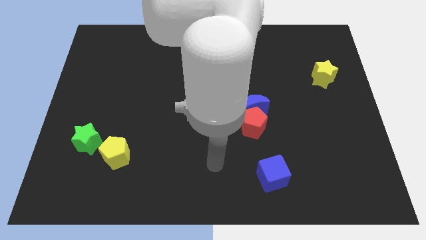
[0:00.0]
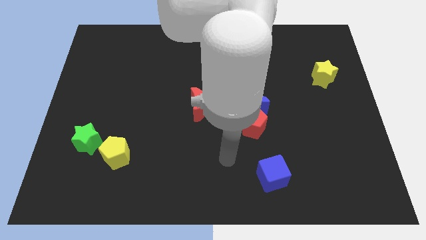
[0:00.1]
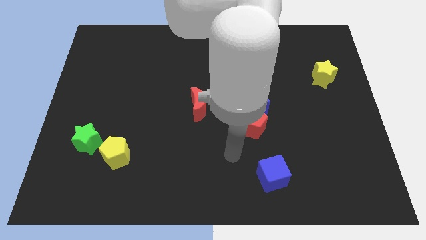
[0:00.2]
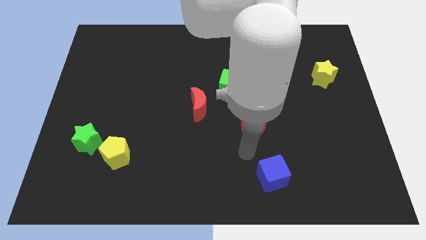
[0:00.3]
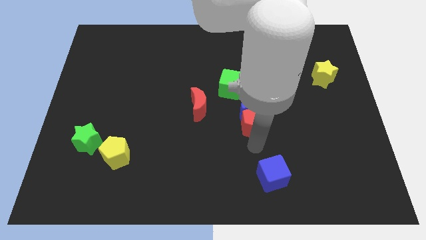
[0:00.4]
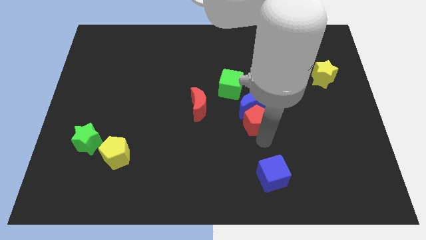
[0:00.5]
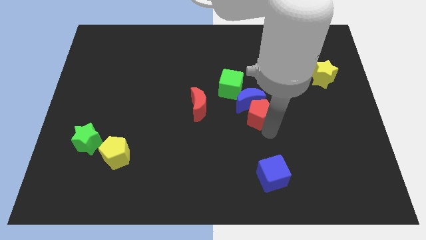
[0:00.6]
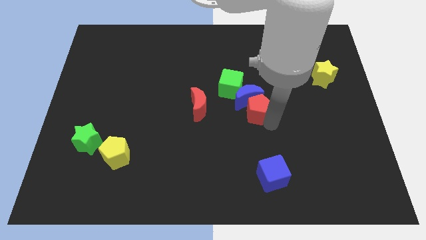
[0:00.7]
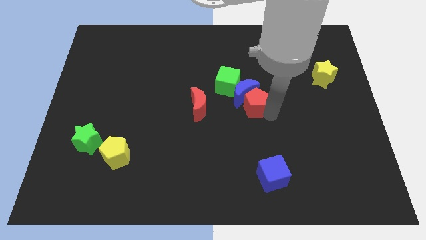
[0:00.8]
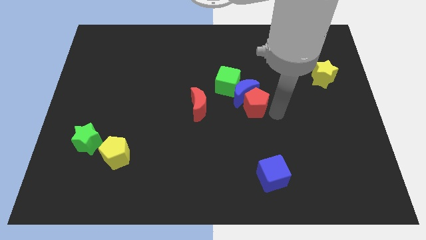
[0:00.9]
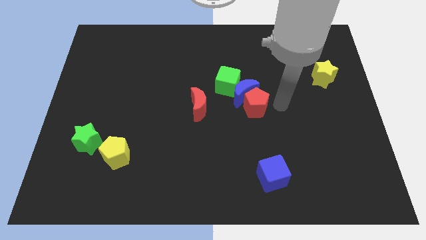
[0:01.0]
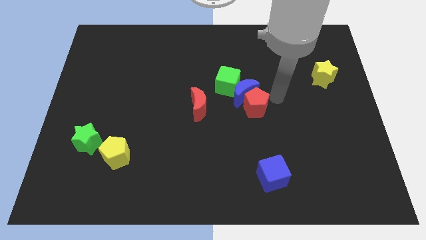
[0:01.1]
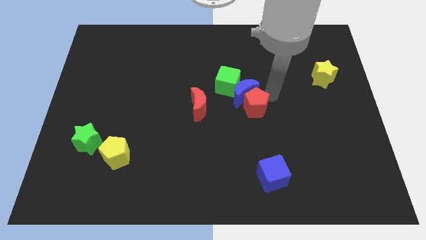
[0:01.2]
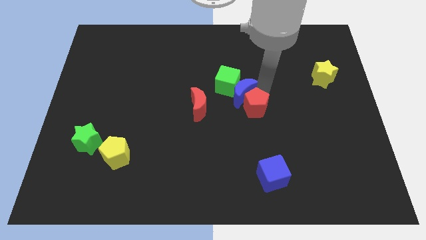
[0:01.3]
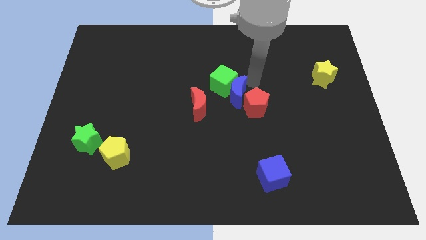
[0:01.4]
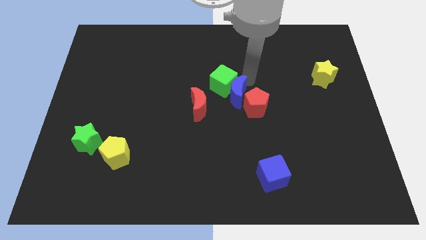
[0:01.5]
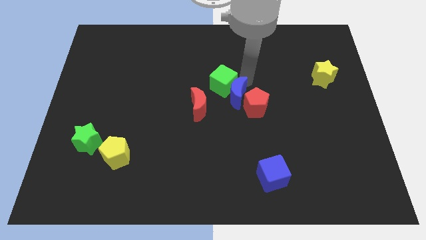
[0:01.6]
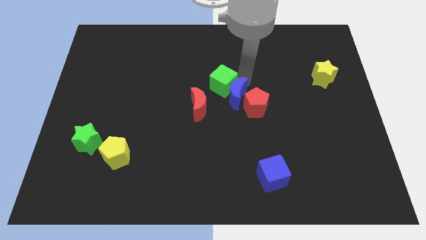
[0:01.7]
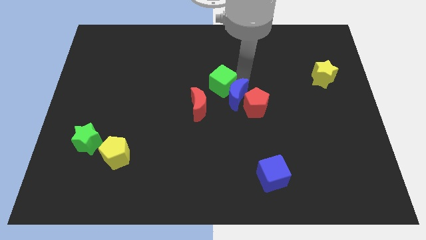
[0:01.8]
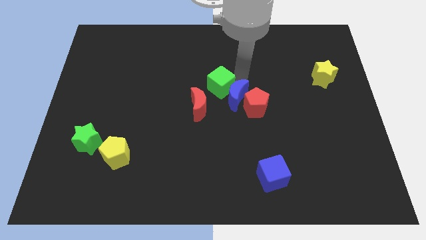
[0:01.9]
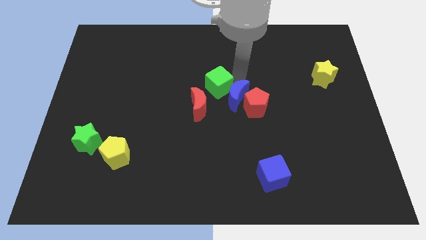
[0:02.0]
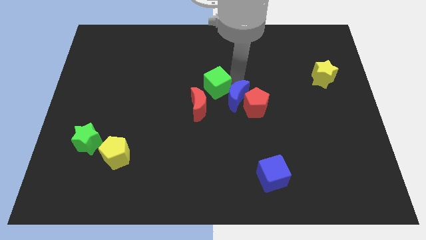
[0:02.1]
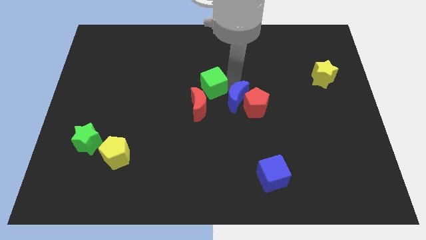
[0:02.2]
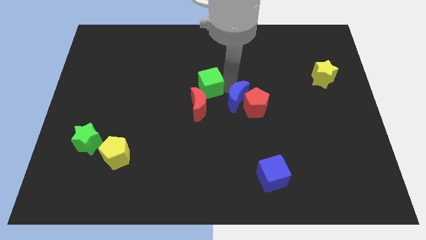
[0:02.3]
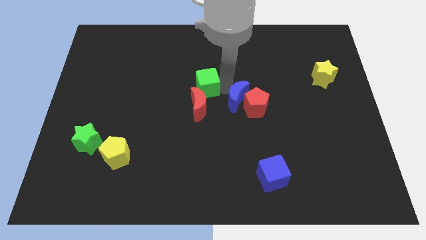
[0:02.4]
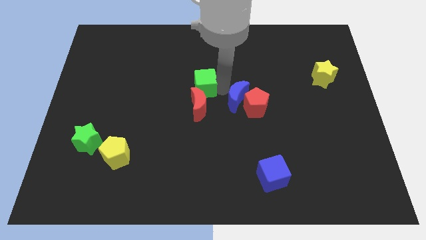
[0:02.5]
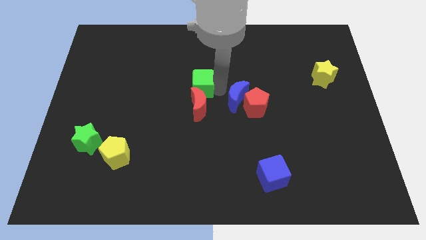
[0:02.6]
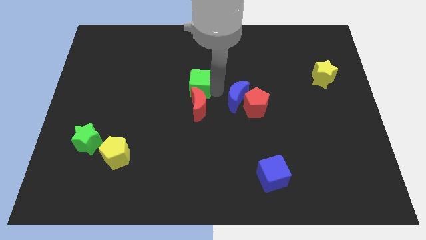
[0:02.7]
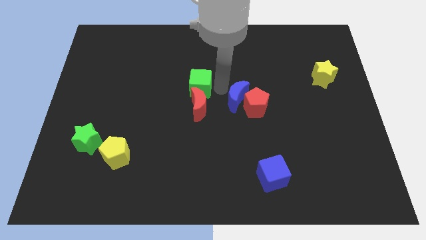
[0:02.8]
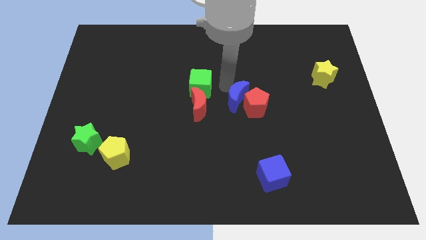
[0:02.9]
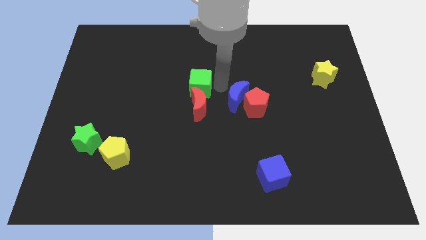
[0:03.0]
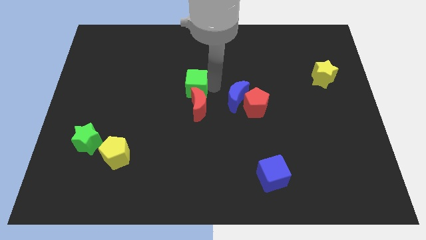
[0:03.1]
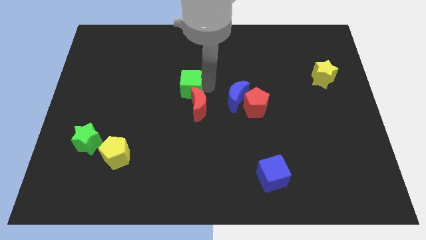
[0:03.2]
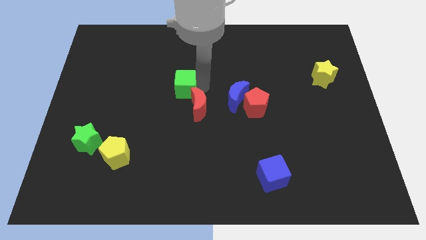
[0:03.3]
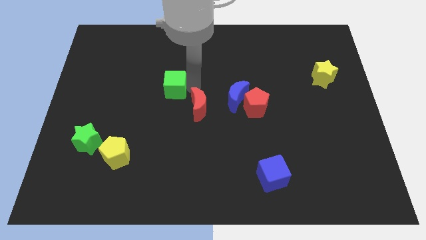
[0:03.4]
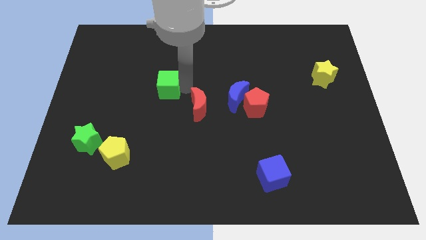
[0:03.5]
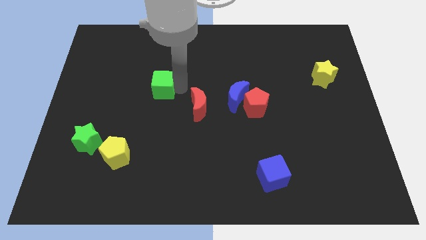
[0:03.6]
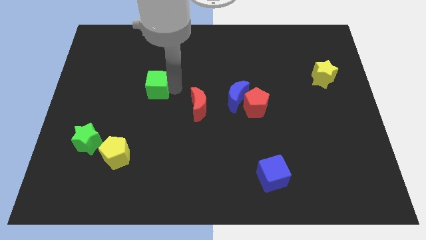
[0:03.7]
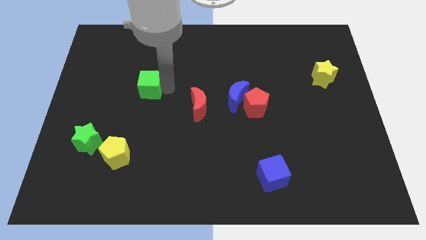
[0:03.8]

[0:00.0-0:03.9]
push the green cube left

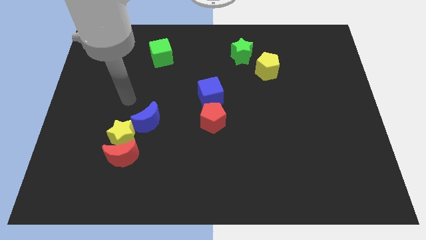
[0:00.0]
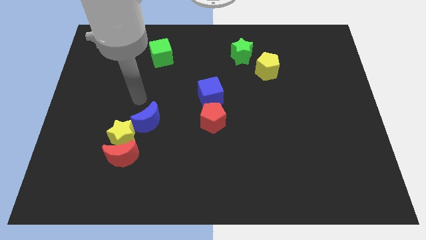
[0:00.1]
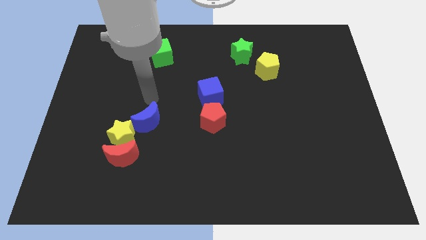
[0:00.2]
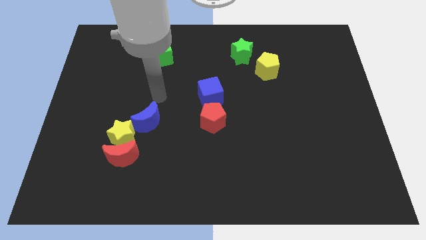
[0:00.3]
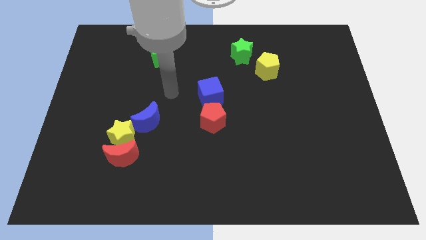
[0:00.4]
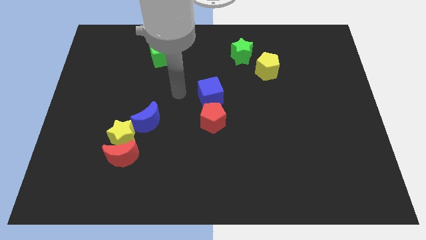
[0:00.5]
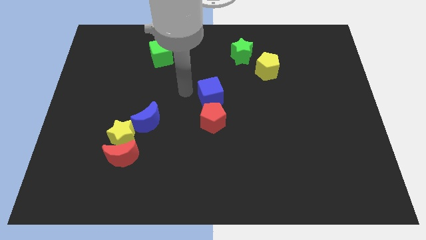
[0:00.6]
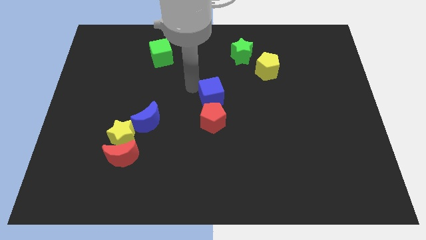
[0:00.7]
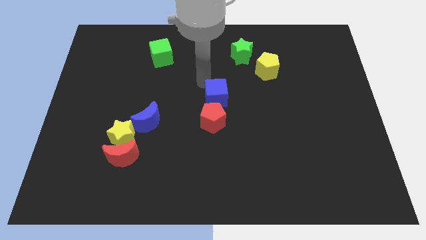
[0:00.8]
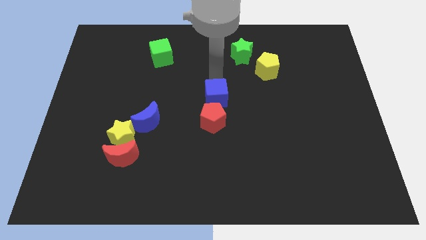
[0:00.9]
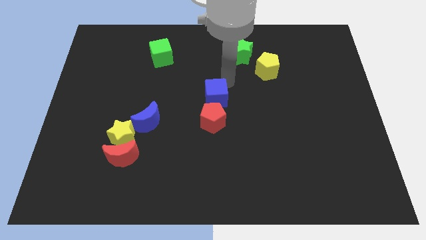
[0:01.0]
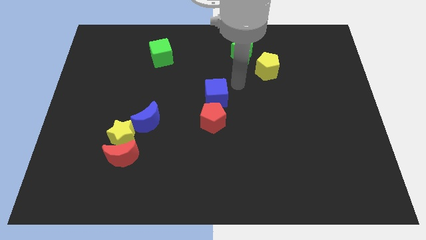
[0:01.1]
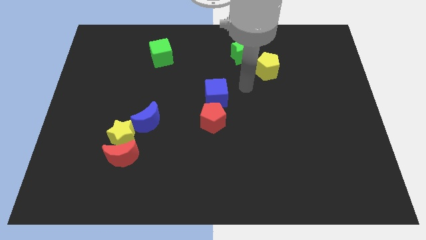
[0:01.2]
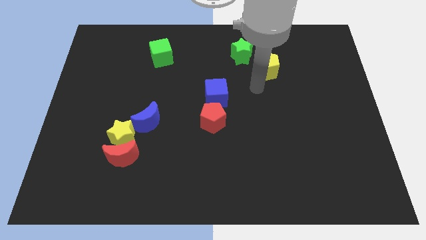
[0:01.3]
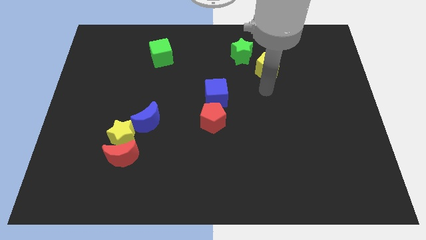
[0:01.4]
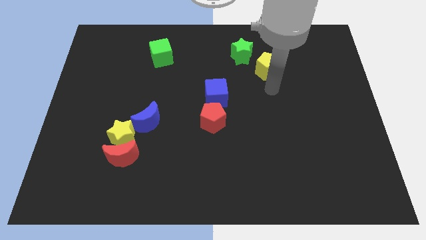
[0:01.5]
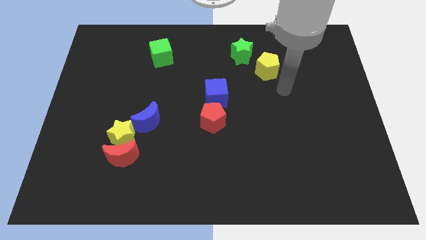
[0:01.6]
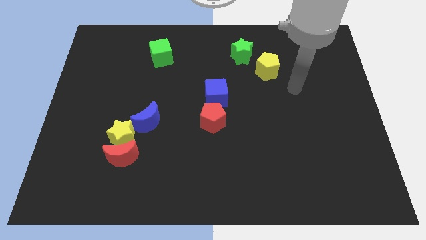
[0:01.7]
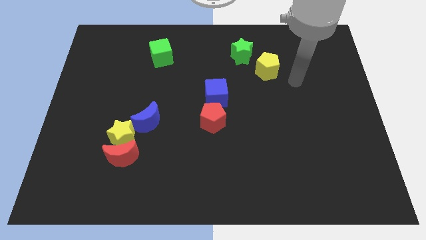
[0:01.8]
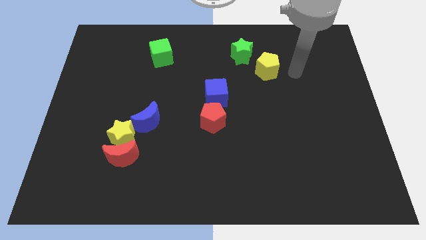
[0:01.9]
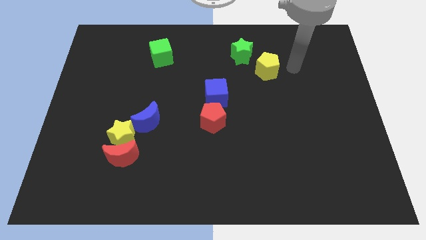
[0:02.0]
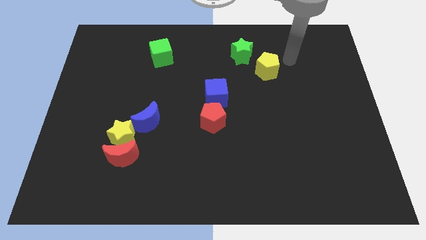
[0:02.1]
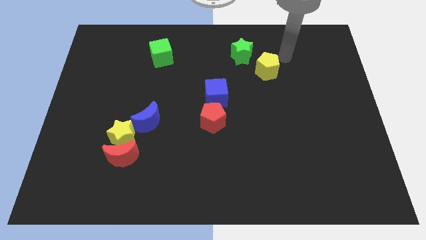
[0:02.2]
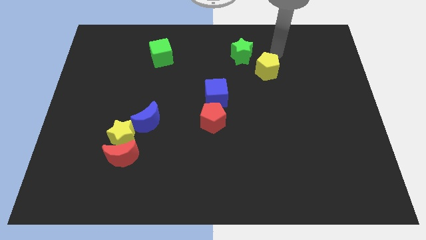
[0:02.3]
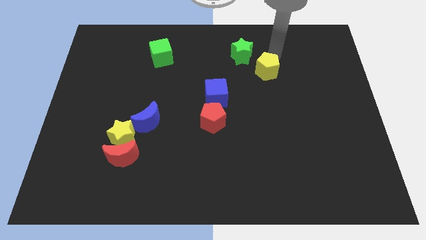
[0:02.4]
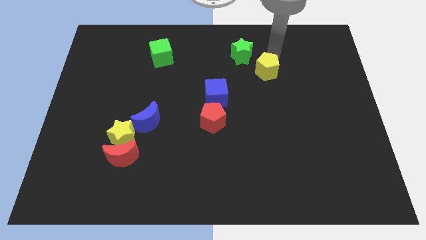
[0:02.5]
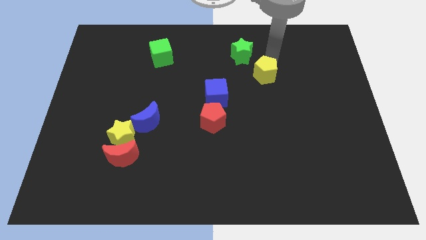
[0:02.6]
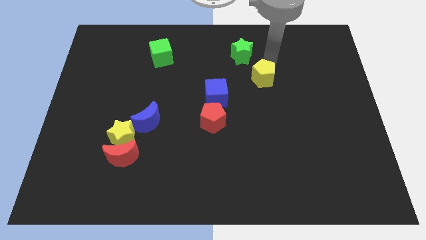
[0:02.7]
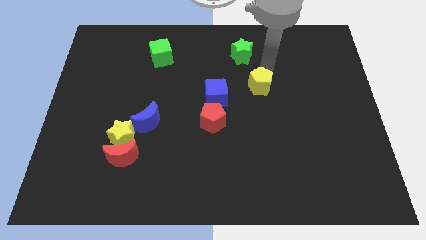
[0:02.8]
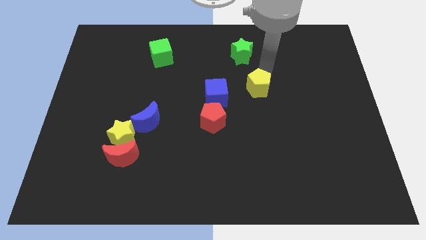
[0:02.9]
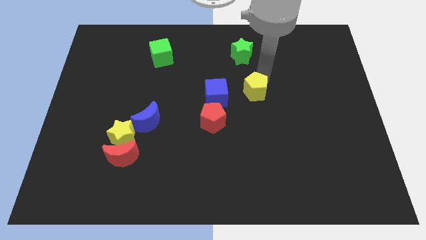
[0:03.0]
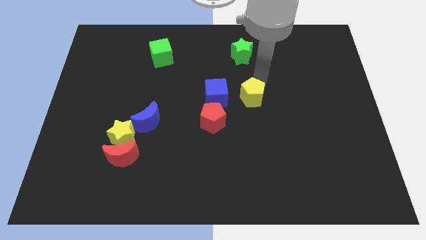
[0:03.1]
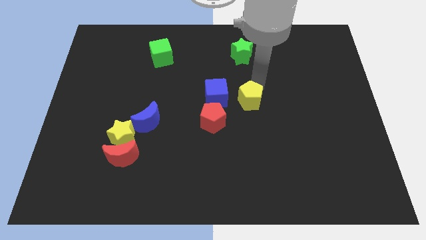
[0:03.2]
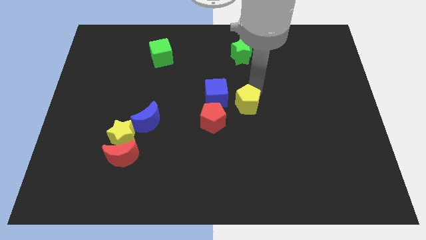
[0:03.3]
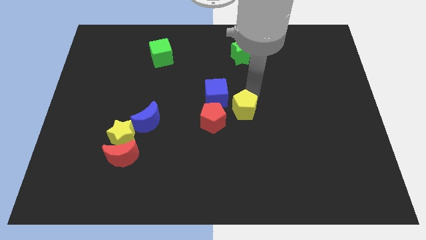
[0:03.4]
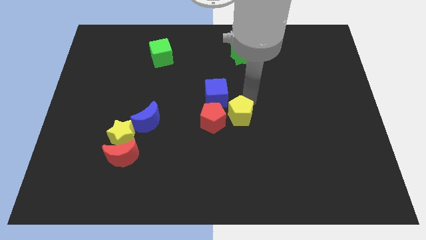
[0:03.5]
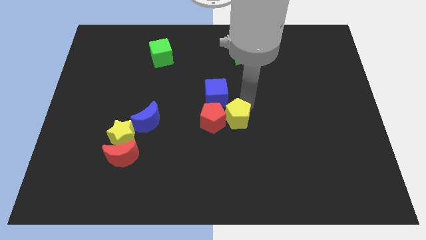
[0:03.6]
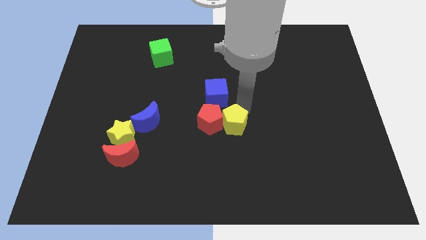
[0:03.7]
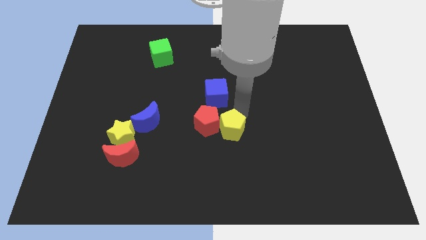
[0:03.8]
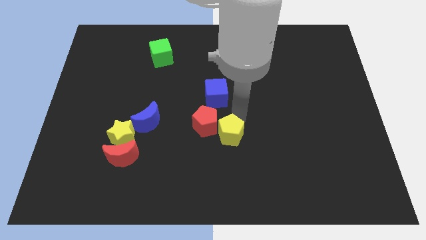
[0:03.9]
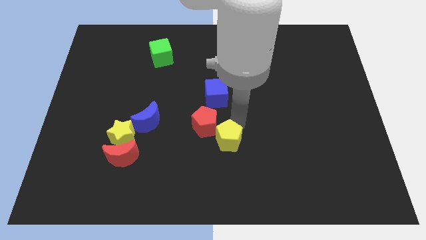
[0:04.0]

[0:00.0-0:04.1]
slide the yellow pentagon down and then left
